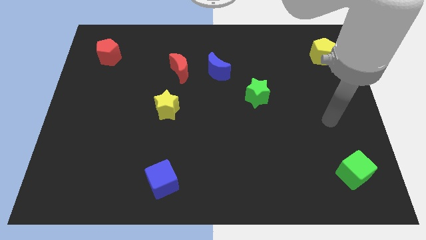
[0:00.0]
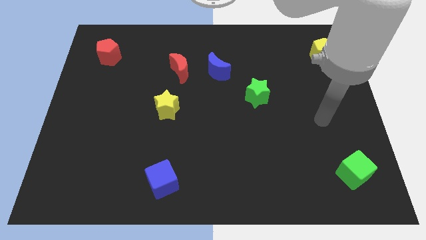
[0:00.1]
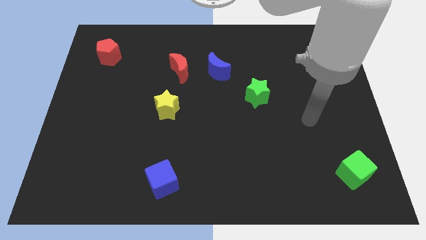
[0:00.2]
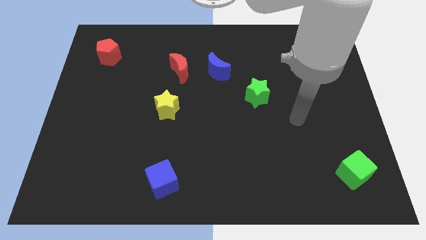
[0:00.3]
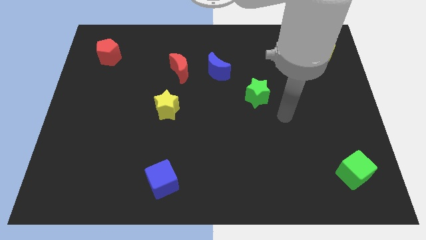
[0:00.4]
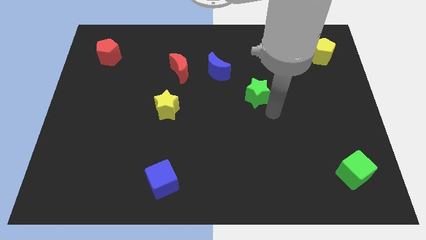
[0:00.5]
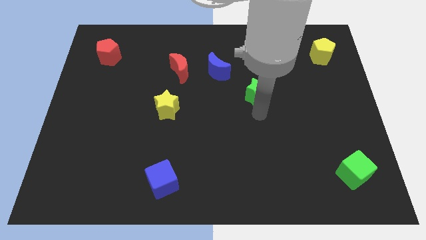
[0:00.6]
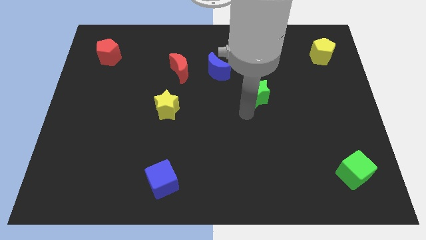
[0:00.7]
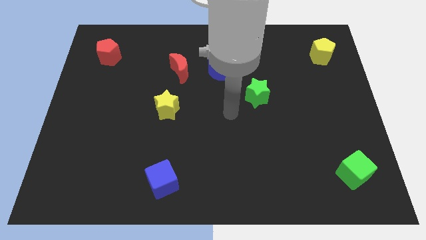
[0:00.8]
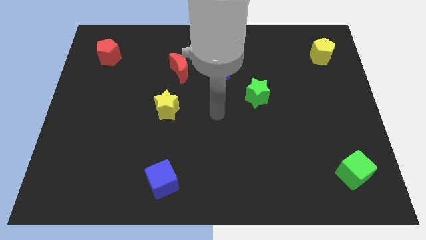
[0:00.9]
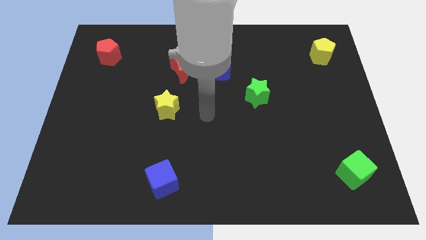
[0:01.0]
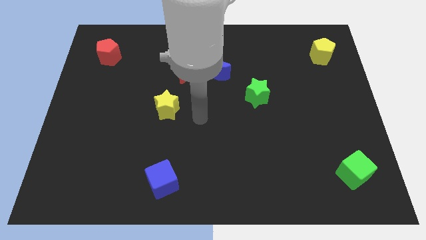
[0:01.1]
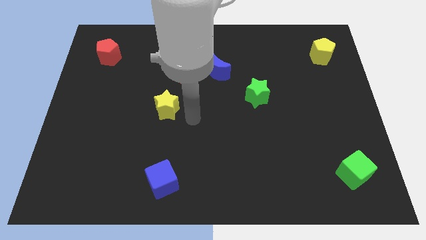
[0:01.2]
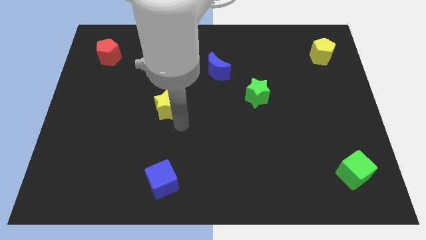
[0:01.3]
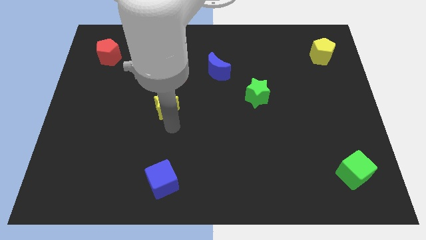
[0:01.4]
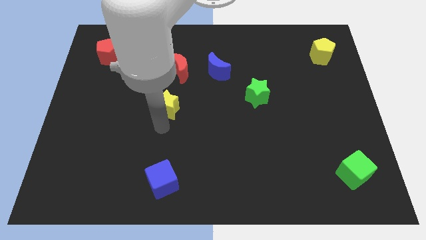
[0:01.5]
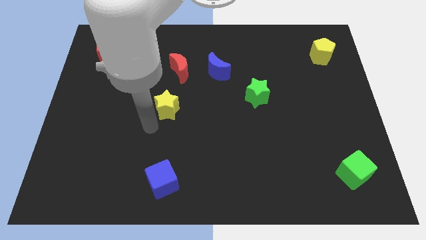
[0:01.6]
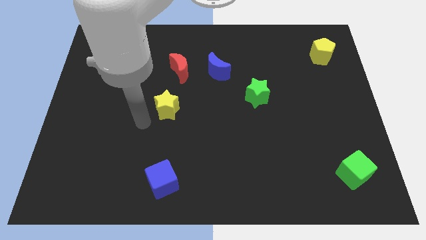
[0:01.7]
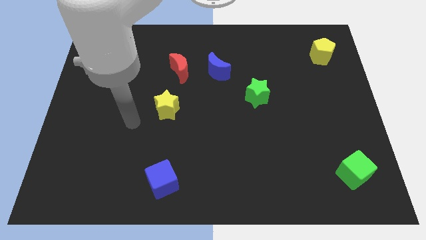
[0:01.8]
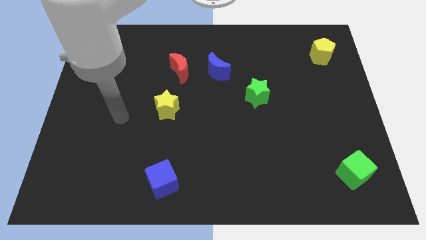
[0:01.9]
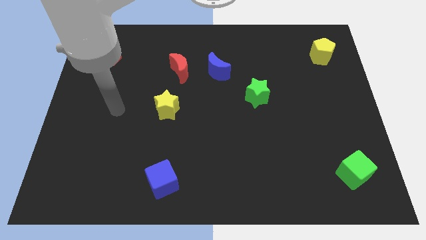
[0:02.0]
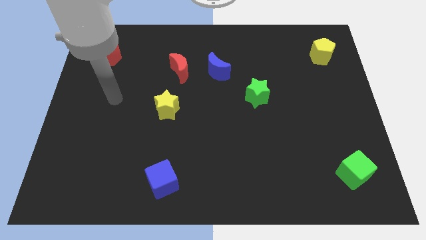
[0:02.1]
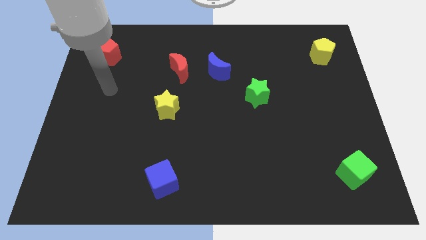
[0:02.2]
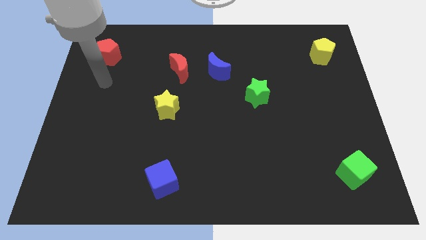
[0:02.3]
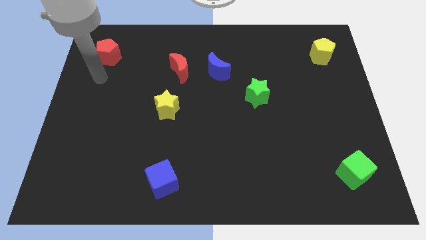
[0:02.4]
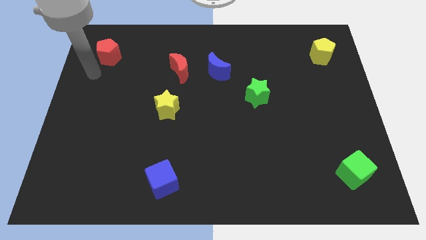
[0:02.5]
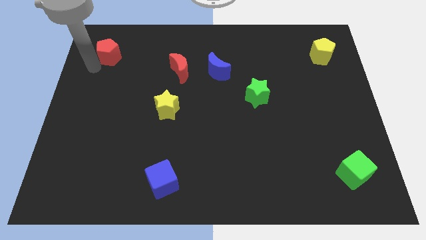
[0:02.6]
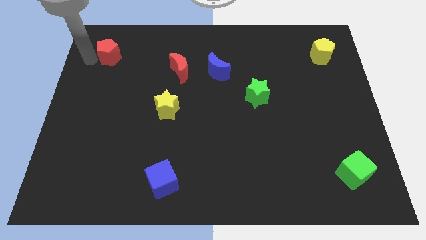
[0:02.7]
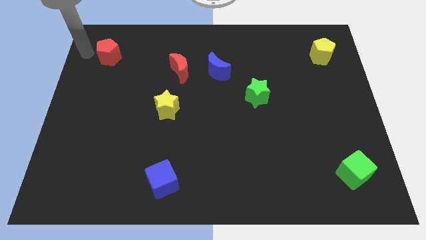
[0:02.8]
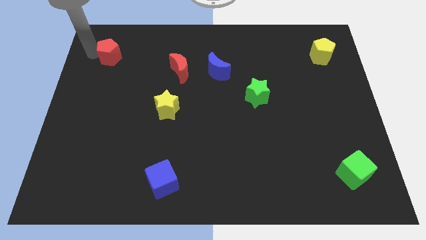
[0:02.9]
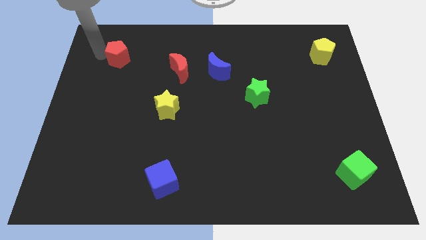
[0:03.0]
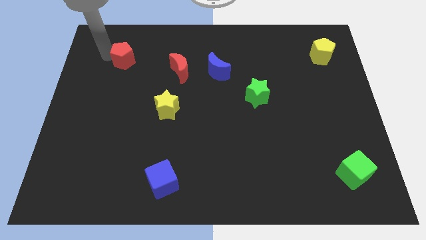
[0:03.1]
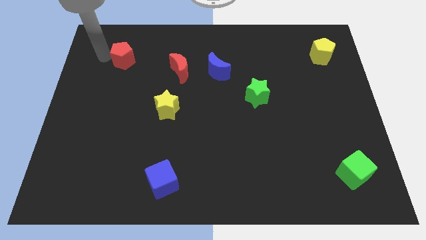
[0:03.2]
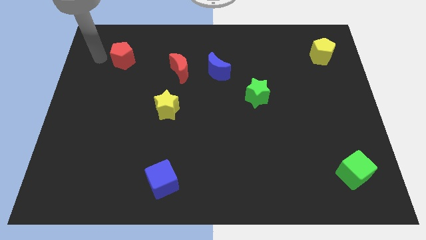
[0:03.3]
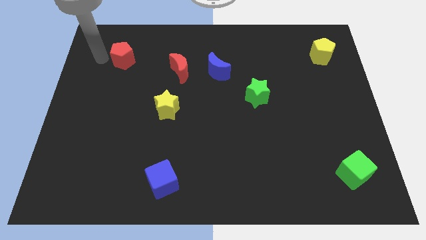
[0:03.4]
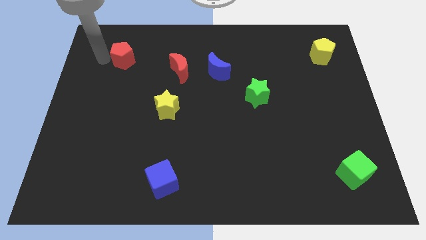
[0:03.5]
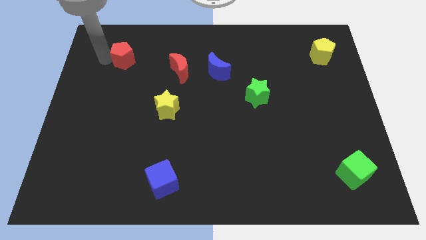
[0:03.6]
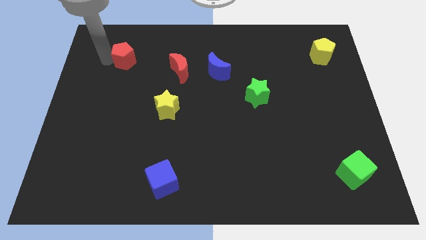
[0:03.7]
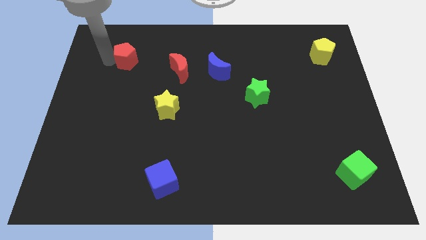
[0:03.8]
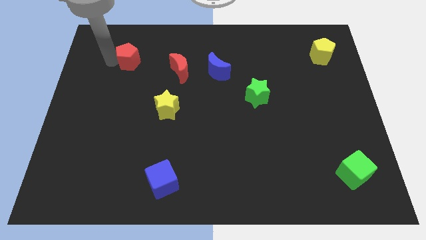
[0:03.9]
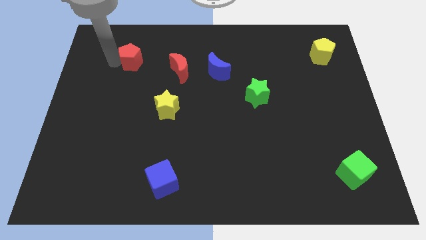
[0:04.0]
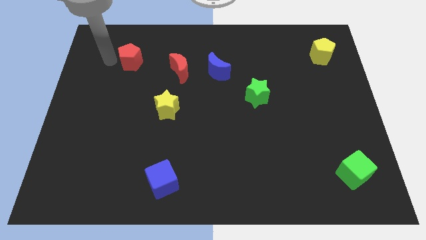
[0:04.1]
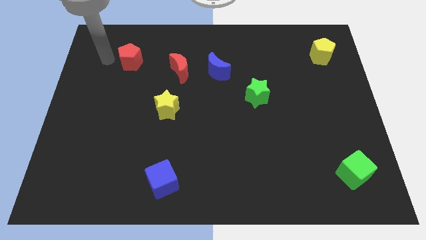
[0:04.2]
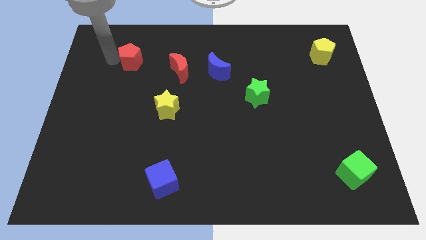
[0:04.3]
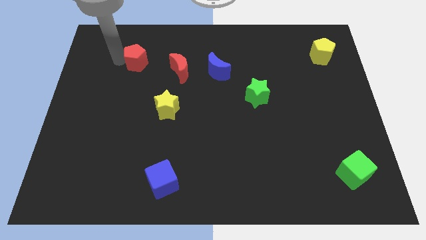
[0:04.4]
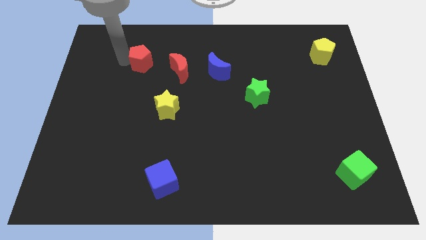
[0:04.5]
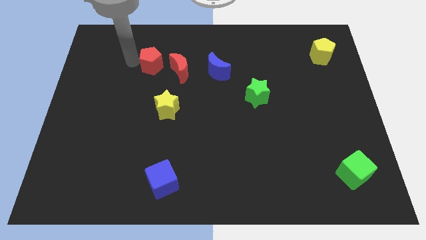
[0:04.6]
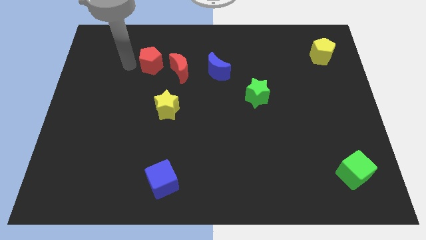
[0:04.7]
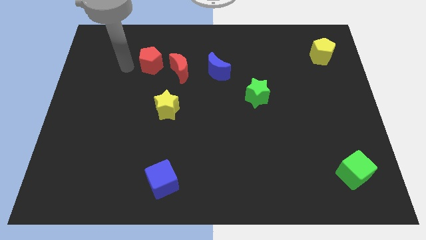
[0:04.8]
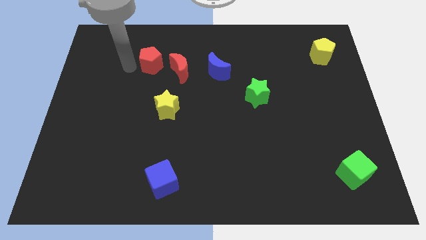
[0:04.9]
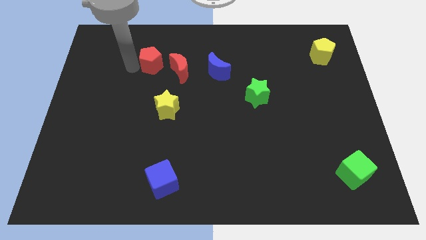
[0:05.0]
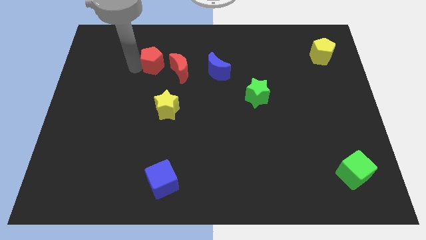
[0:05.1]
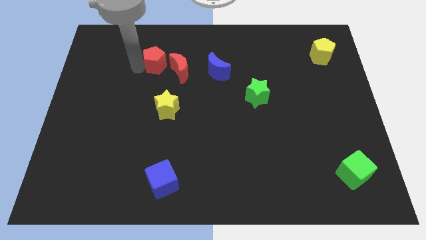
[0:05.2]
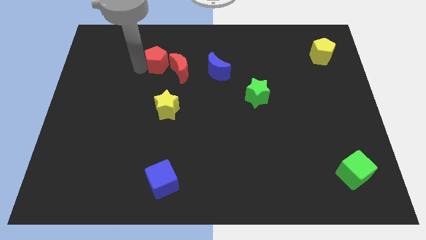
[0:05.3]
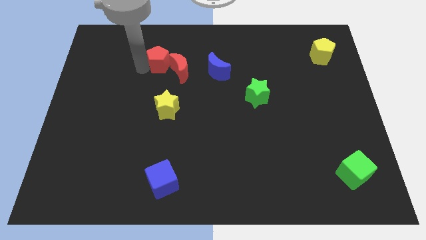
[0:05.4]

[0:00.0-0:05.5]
put the red pentagon to the top side of the yellow star

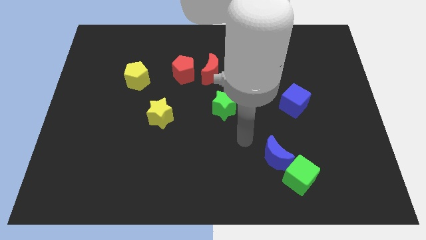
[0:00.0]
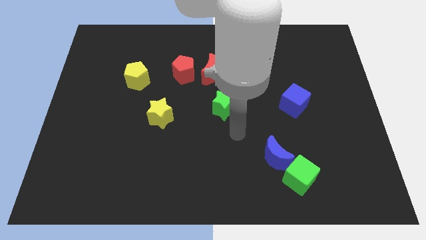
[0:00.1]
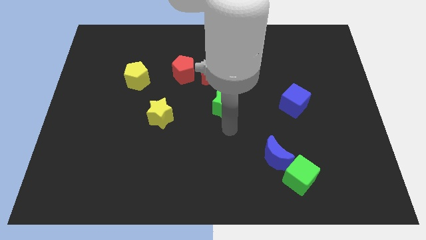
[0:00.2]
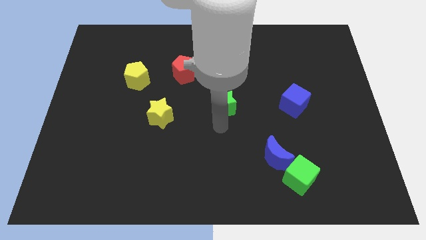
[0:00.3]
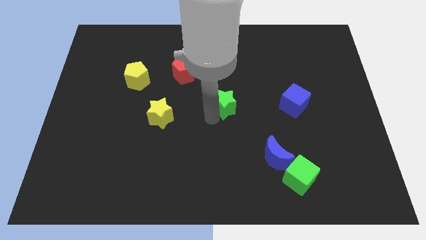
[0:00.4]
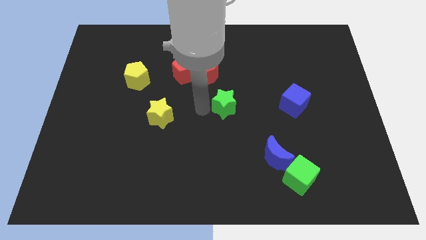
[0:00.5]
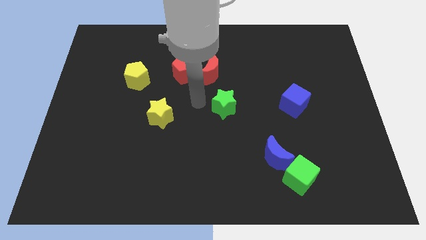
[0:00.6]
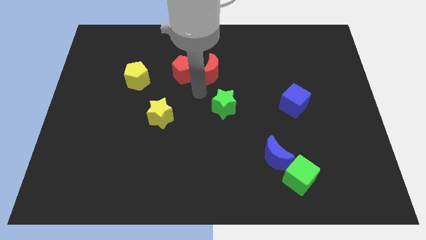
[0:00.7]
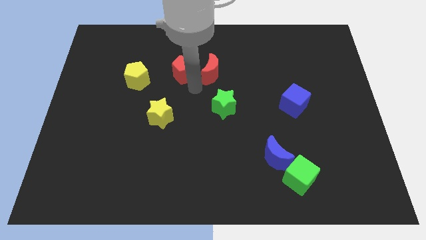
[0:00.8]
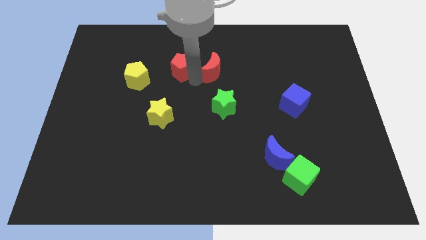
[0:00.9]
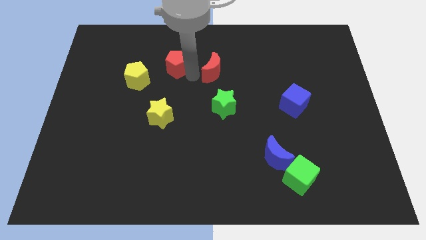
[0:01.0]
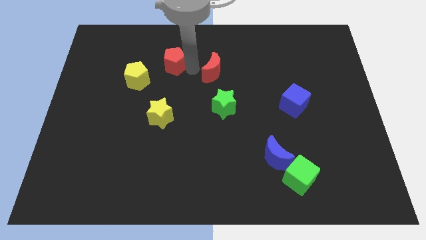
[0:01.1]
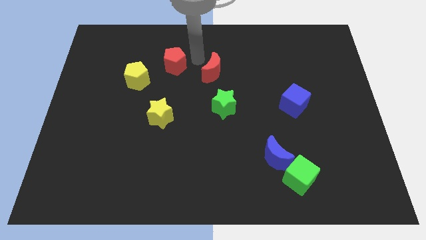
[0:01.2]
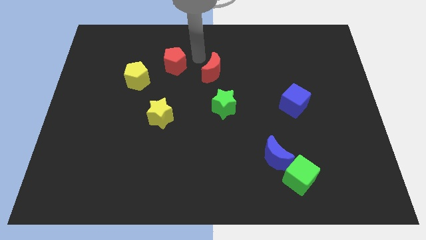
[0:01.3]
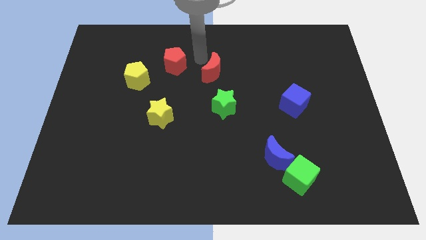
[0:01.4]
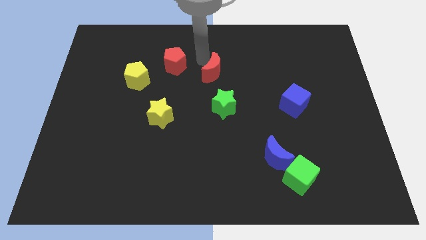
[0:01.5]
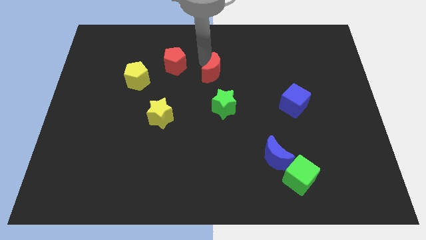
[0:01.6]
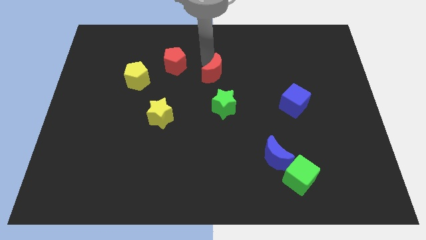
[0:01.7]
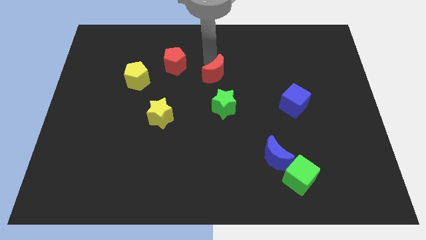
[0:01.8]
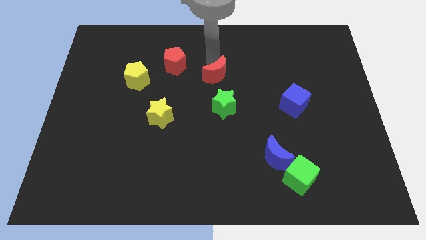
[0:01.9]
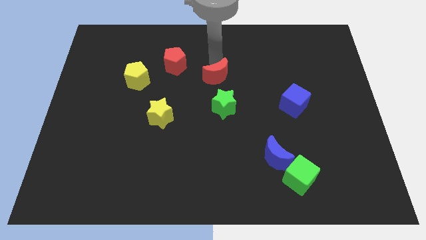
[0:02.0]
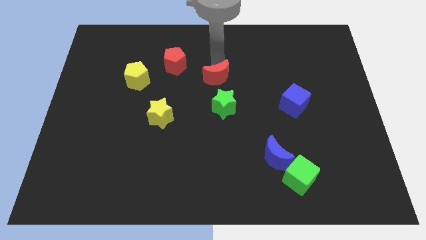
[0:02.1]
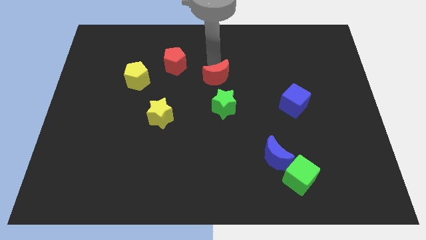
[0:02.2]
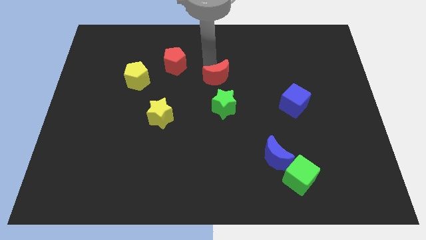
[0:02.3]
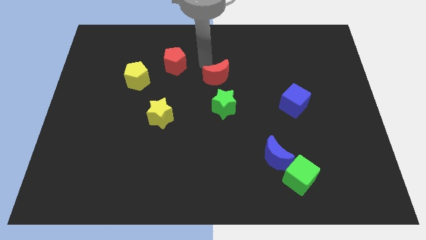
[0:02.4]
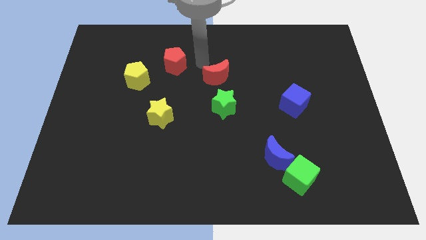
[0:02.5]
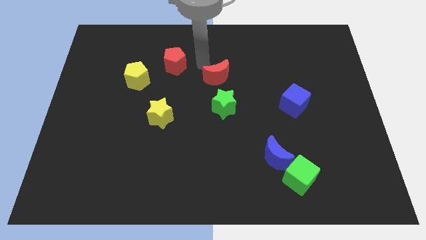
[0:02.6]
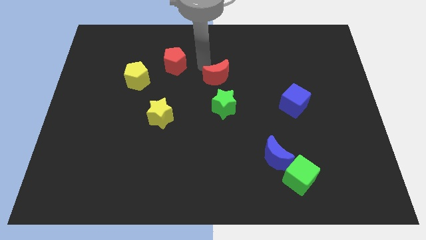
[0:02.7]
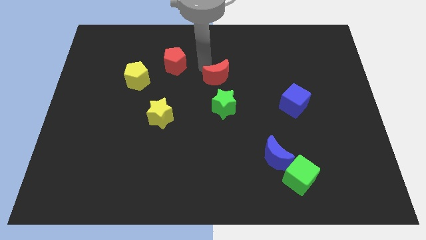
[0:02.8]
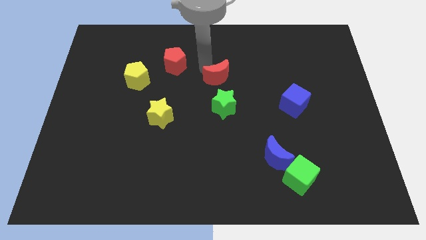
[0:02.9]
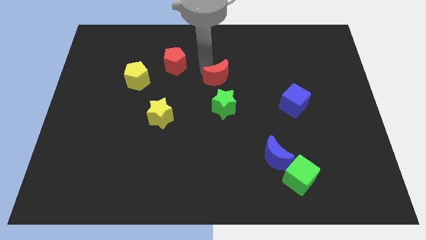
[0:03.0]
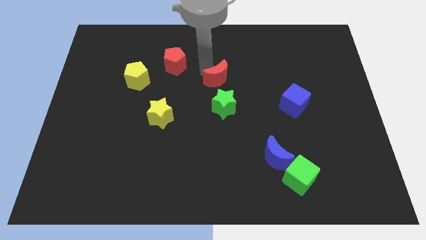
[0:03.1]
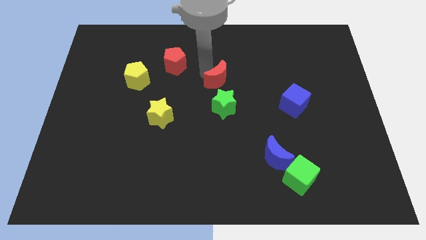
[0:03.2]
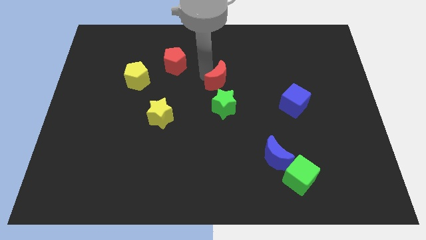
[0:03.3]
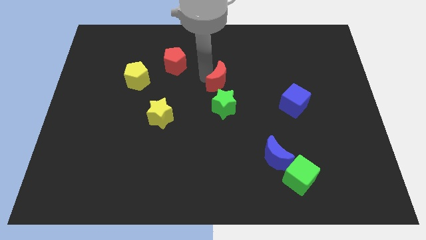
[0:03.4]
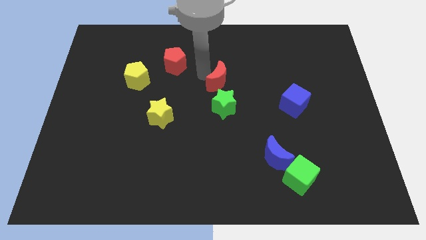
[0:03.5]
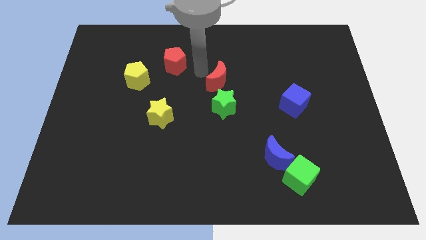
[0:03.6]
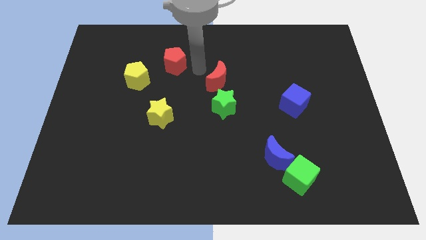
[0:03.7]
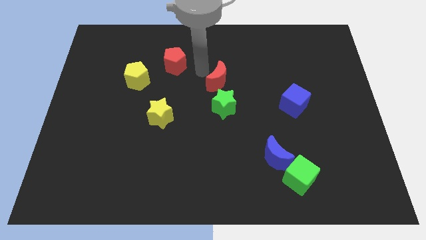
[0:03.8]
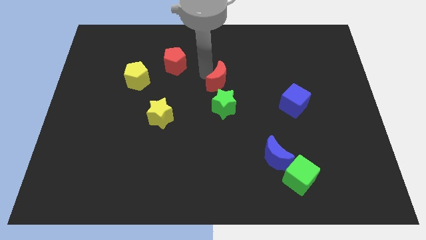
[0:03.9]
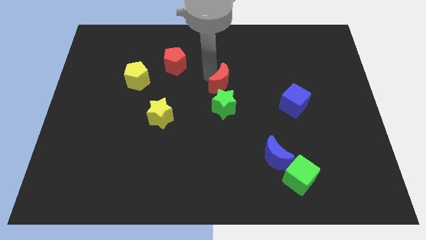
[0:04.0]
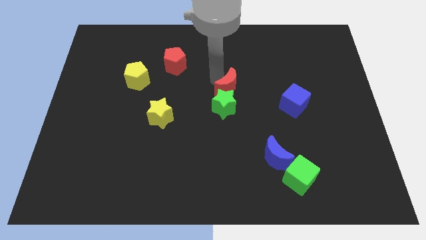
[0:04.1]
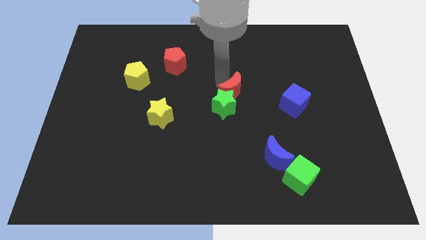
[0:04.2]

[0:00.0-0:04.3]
slide the red moon left of the blue cube
